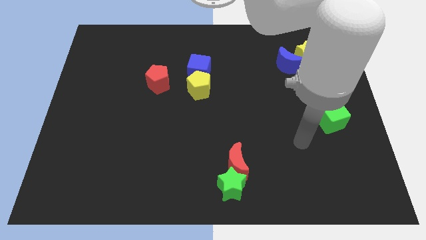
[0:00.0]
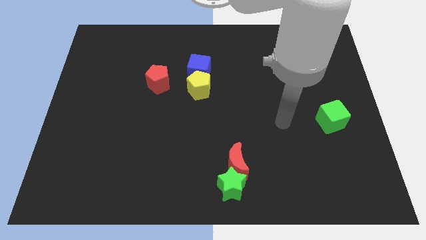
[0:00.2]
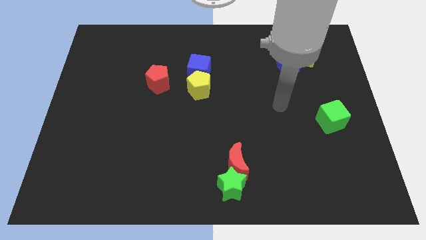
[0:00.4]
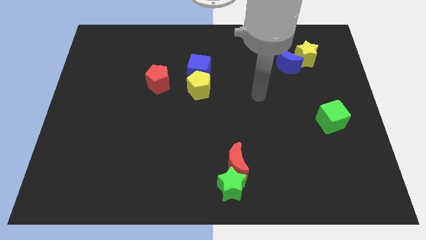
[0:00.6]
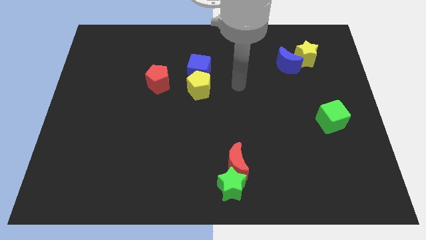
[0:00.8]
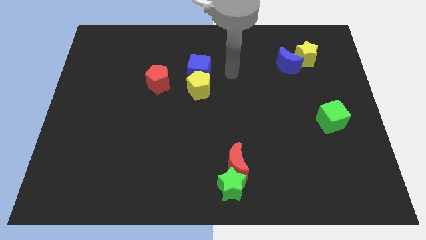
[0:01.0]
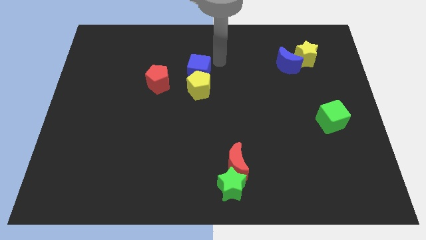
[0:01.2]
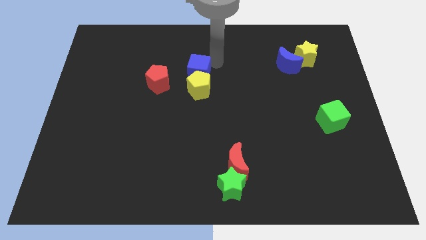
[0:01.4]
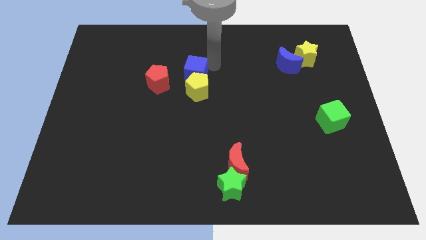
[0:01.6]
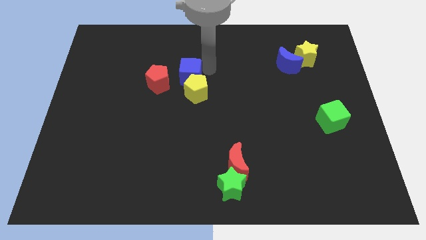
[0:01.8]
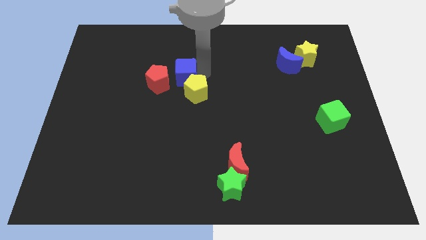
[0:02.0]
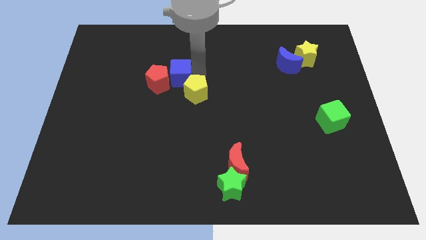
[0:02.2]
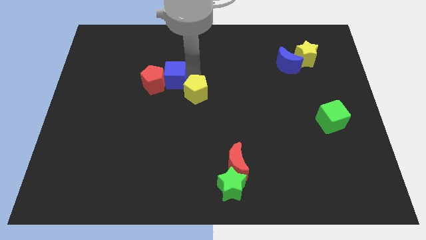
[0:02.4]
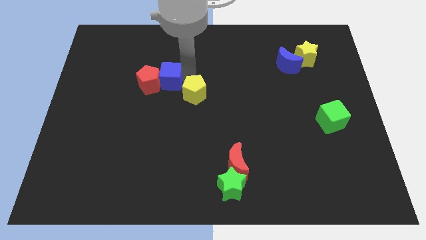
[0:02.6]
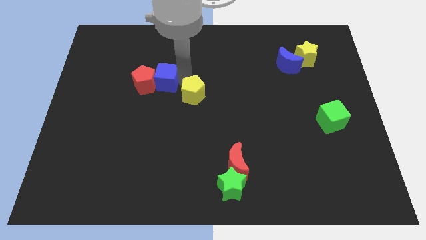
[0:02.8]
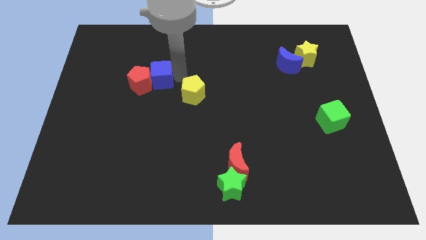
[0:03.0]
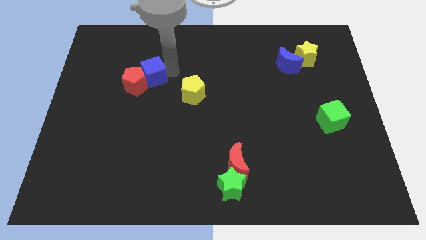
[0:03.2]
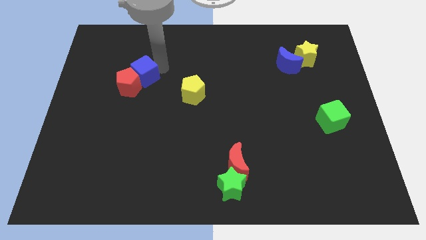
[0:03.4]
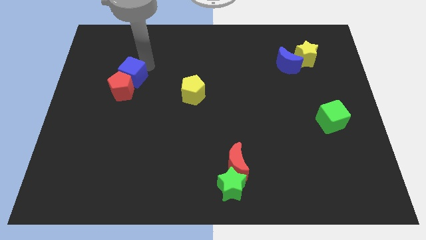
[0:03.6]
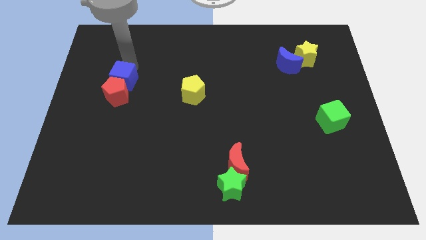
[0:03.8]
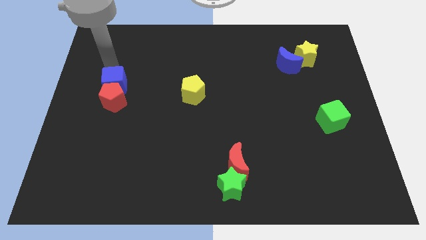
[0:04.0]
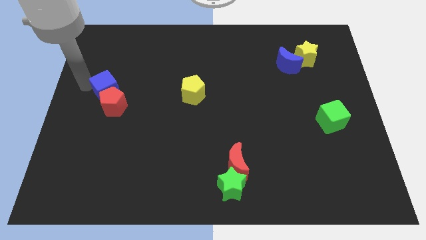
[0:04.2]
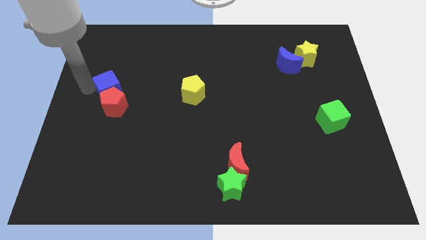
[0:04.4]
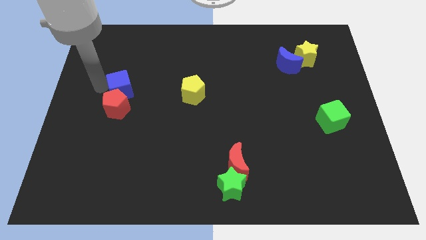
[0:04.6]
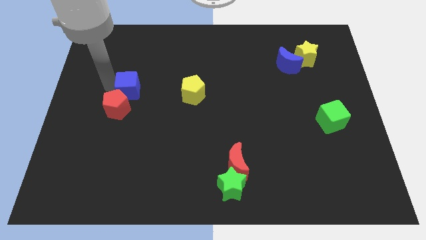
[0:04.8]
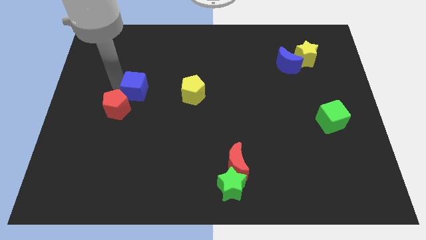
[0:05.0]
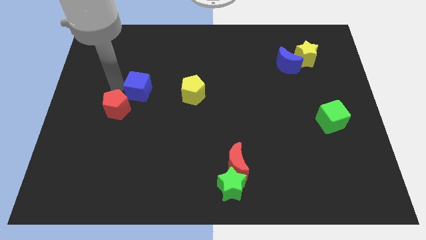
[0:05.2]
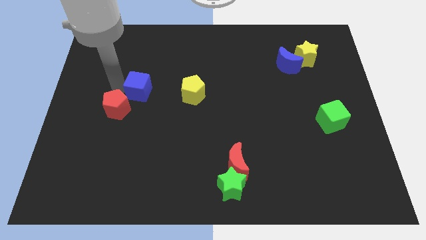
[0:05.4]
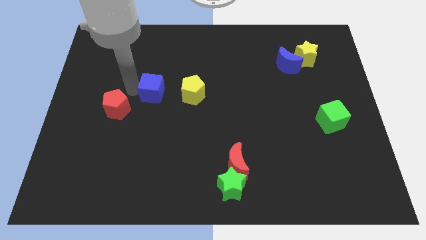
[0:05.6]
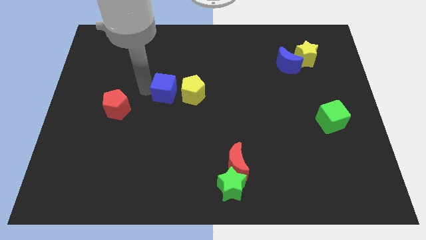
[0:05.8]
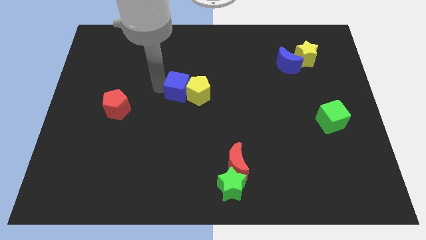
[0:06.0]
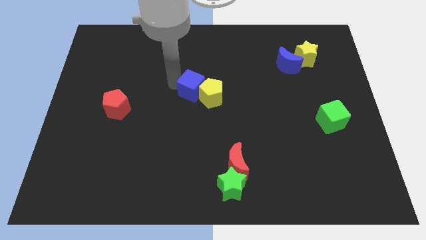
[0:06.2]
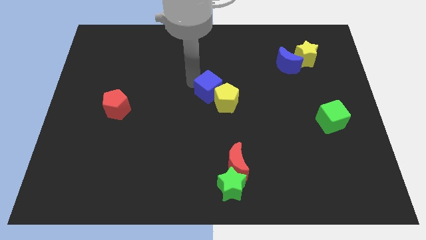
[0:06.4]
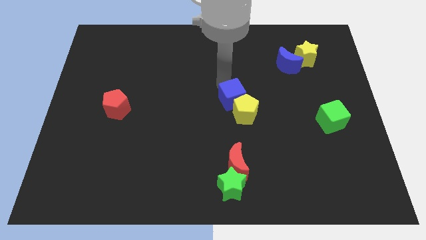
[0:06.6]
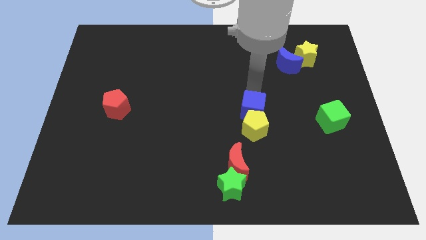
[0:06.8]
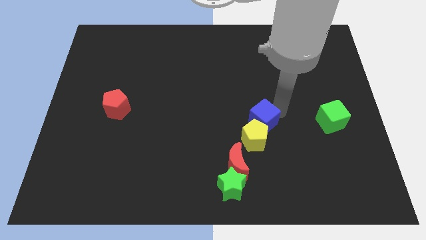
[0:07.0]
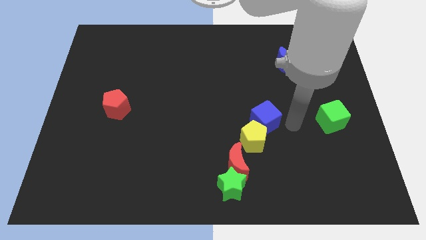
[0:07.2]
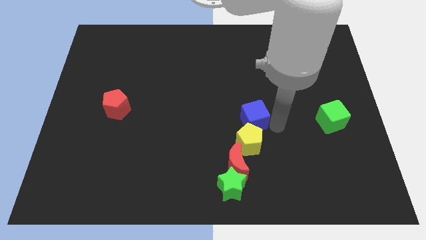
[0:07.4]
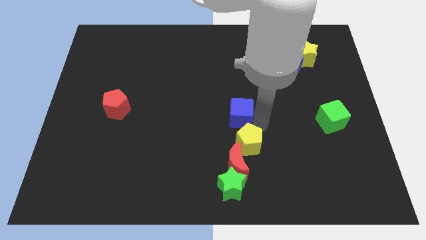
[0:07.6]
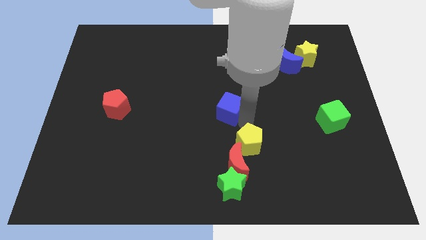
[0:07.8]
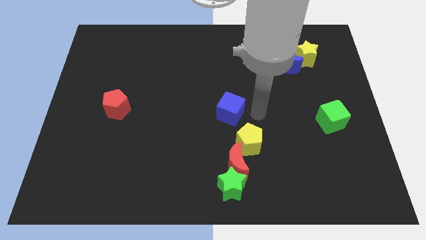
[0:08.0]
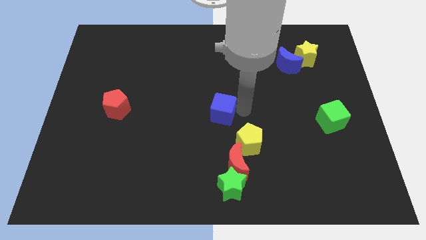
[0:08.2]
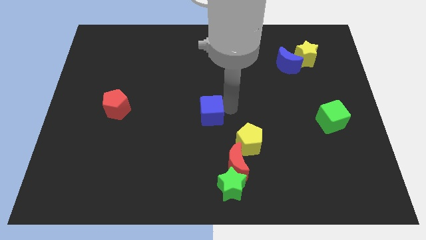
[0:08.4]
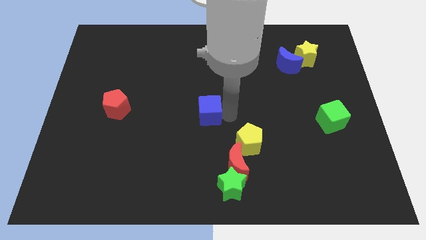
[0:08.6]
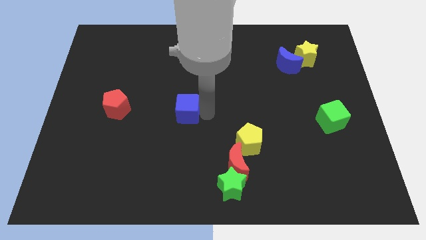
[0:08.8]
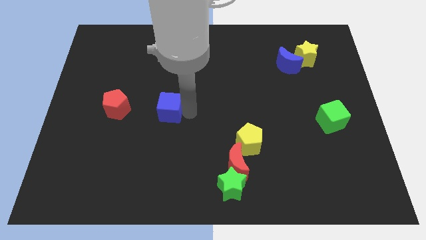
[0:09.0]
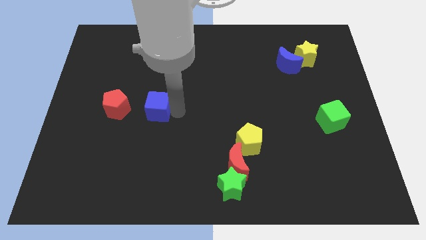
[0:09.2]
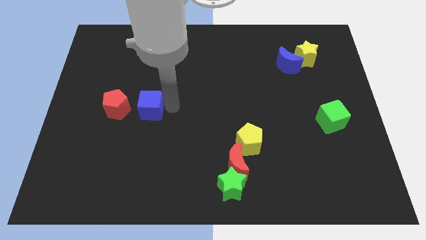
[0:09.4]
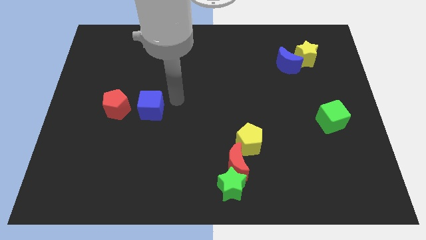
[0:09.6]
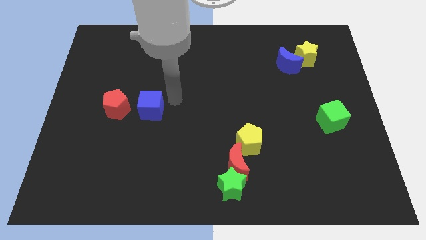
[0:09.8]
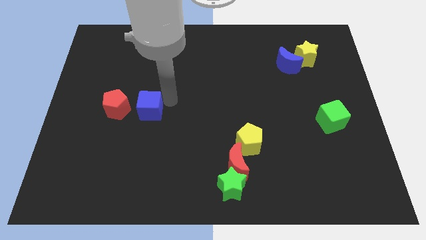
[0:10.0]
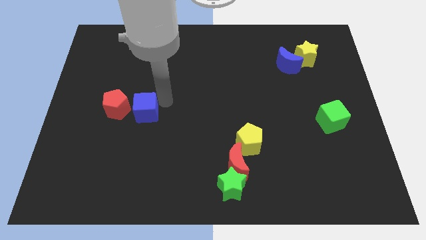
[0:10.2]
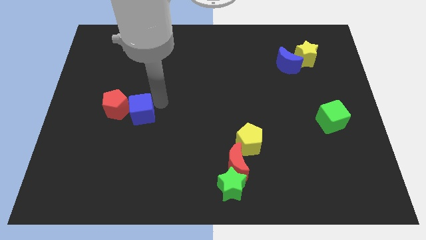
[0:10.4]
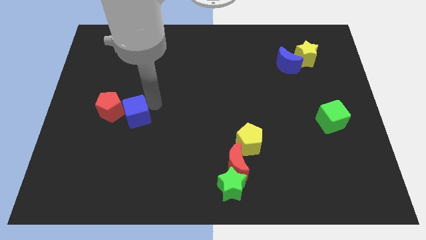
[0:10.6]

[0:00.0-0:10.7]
slide the blue cube diagonally downwards and left

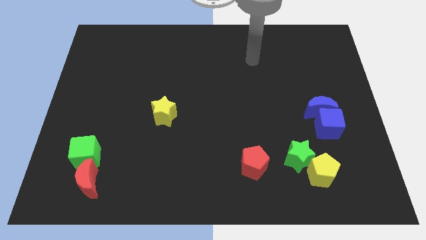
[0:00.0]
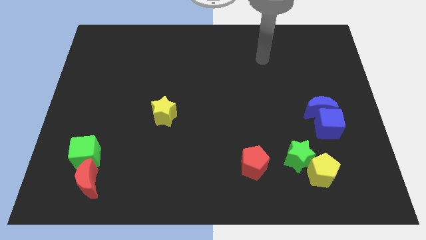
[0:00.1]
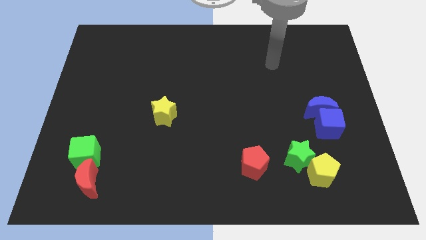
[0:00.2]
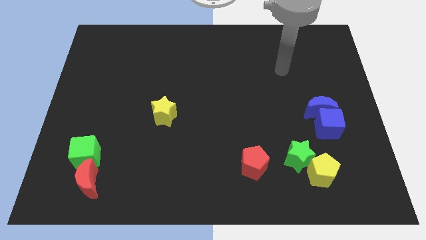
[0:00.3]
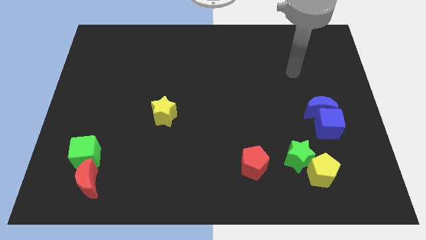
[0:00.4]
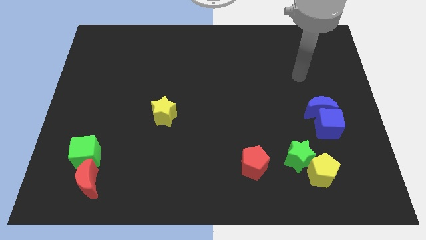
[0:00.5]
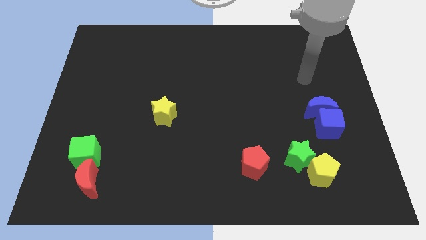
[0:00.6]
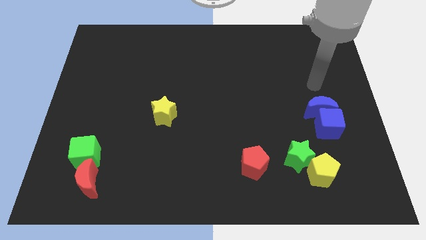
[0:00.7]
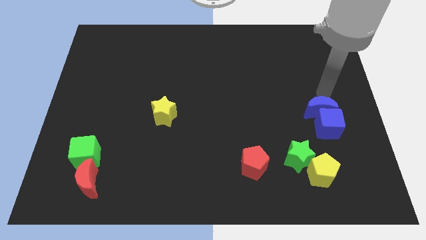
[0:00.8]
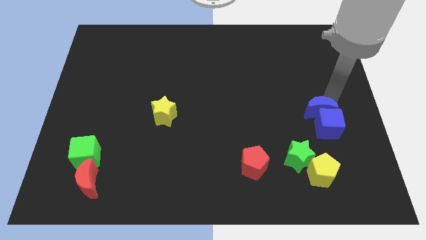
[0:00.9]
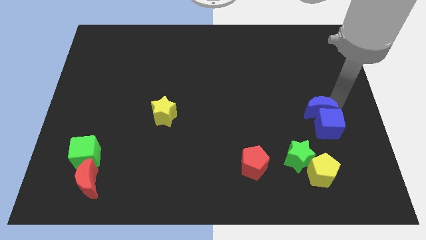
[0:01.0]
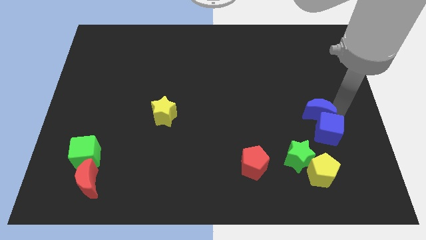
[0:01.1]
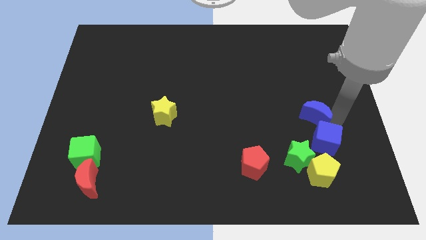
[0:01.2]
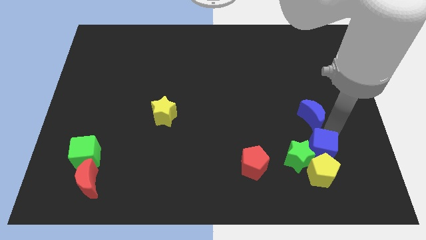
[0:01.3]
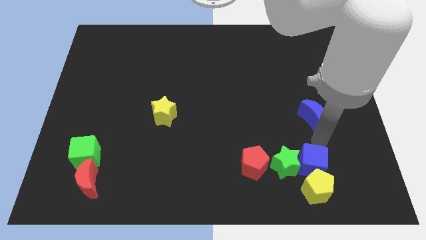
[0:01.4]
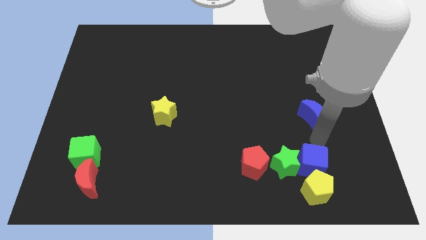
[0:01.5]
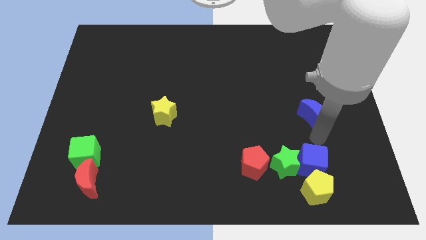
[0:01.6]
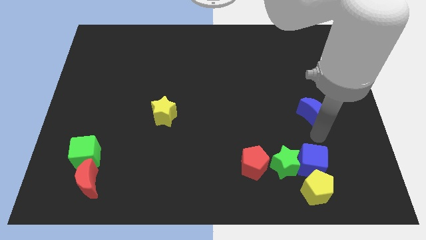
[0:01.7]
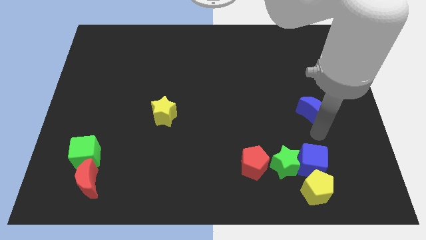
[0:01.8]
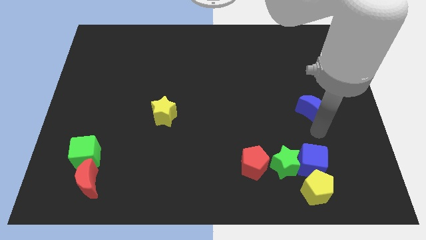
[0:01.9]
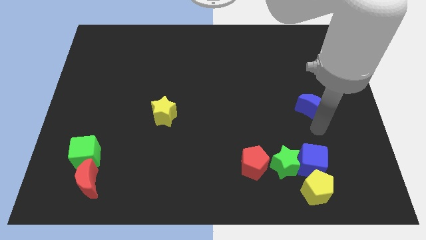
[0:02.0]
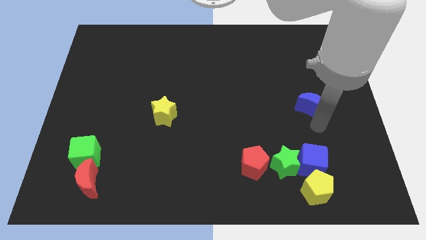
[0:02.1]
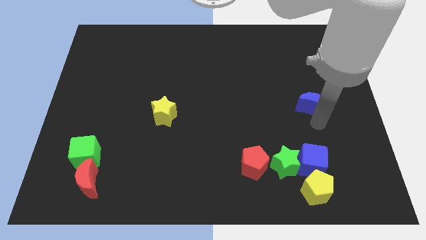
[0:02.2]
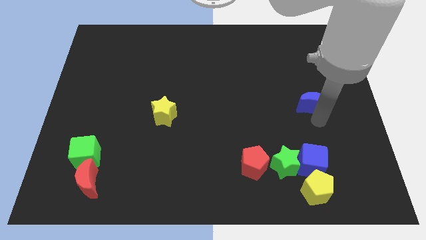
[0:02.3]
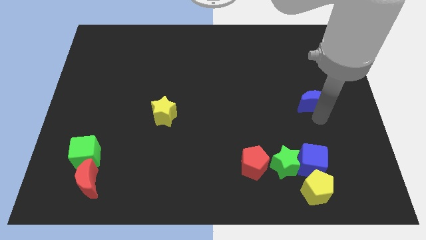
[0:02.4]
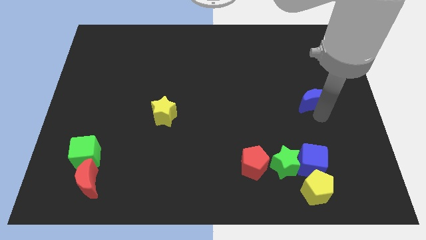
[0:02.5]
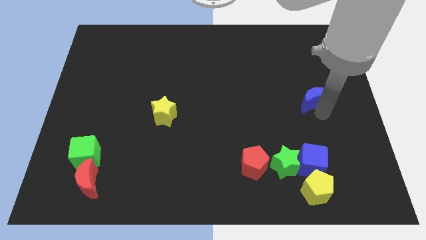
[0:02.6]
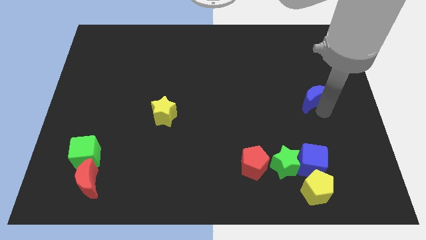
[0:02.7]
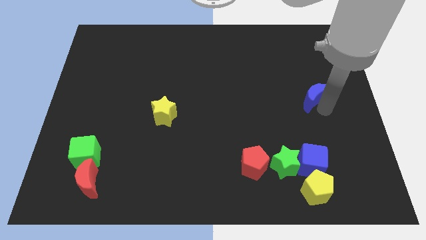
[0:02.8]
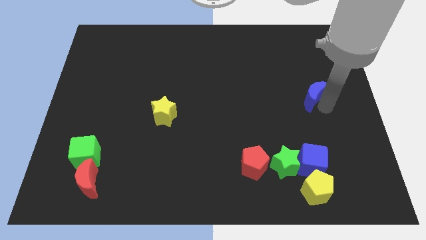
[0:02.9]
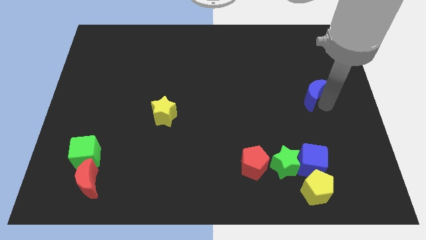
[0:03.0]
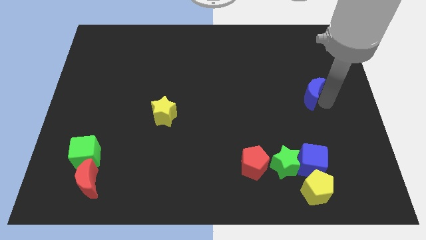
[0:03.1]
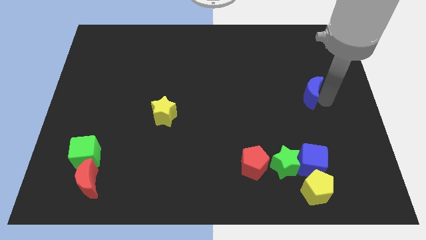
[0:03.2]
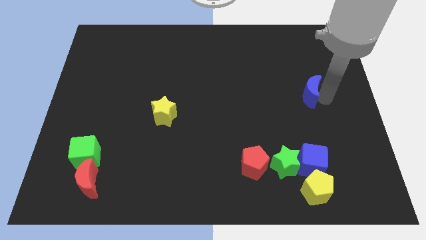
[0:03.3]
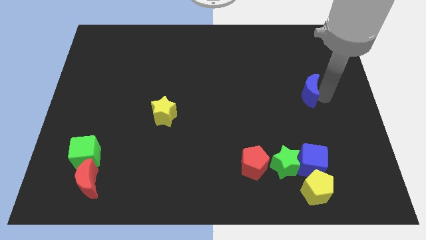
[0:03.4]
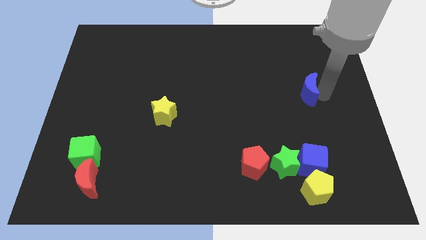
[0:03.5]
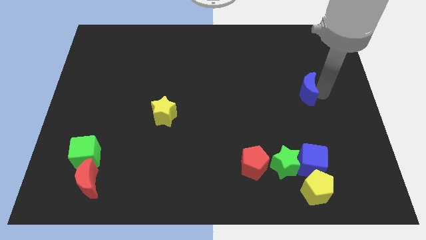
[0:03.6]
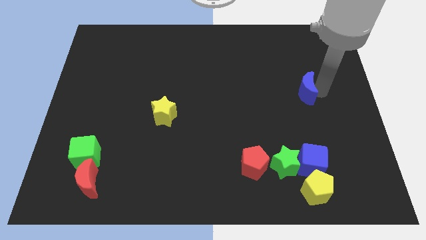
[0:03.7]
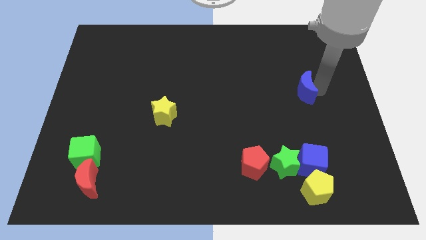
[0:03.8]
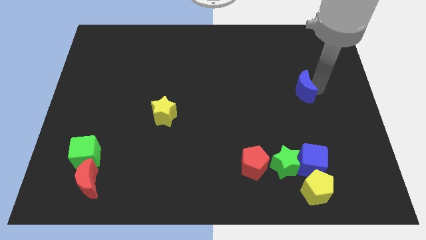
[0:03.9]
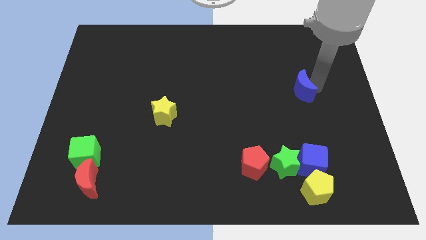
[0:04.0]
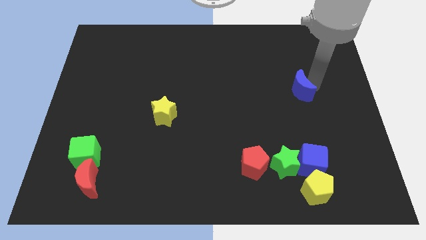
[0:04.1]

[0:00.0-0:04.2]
move the blue moon slightly diagonally upwards and to the left
